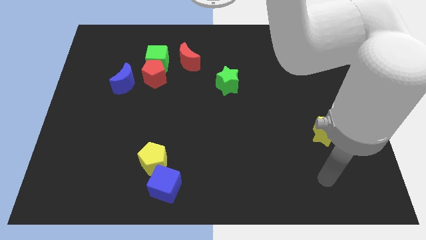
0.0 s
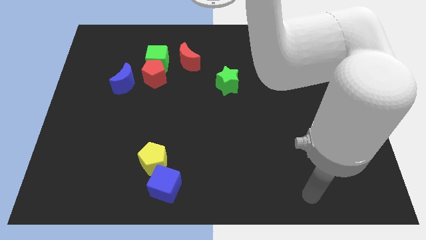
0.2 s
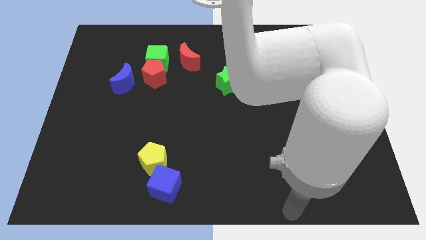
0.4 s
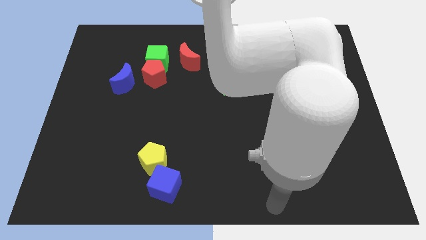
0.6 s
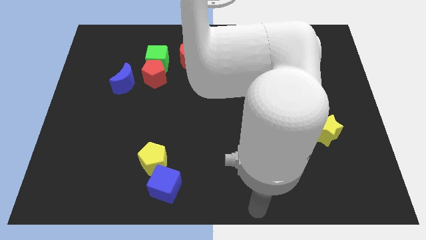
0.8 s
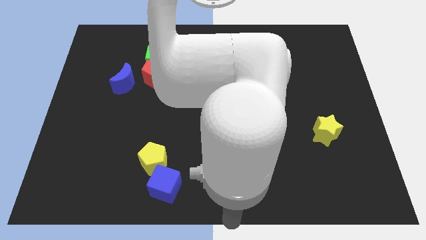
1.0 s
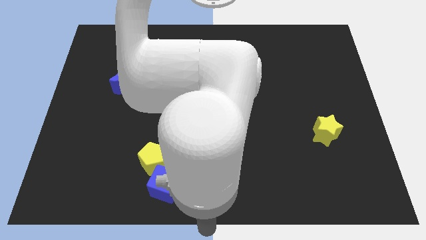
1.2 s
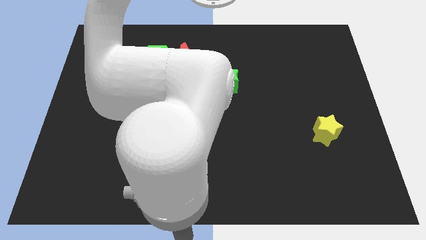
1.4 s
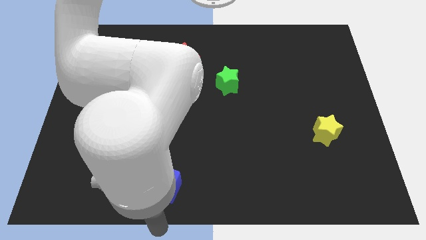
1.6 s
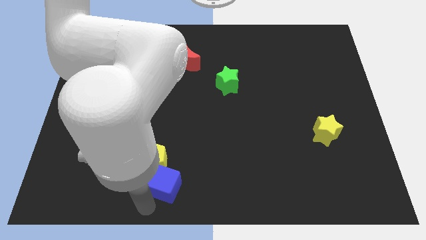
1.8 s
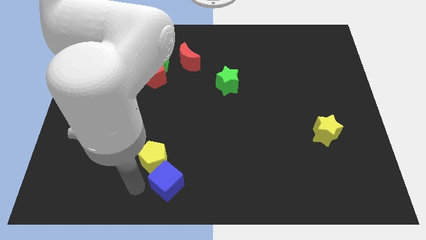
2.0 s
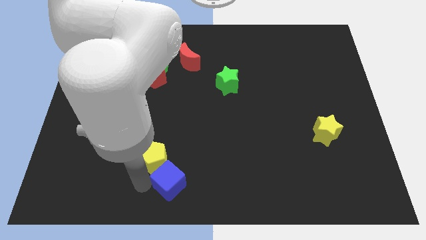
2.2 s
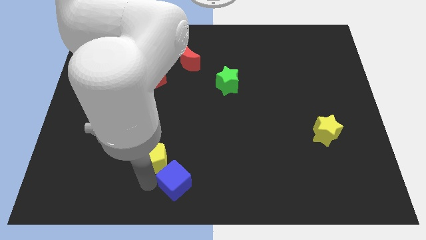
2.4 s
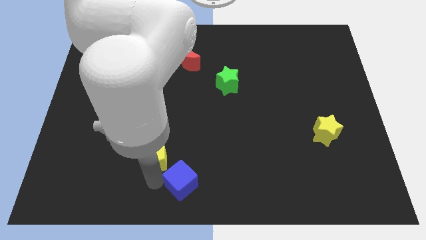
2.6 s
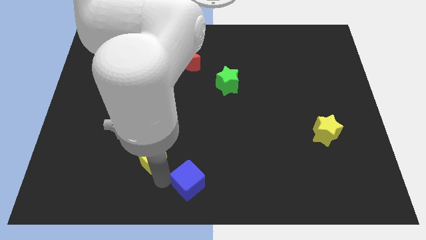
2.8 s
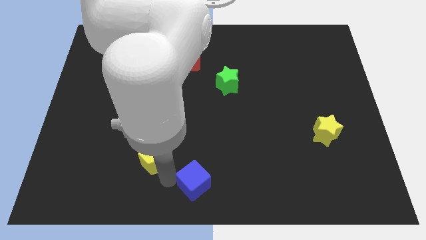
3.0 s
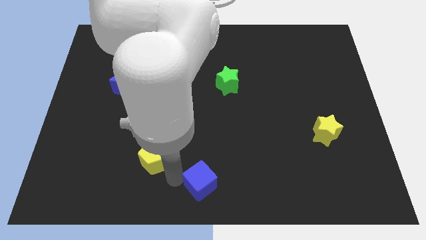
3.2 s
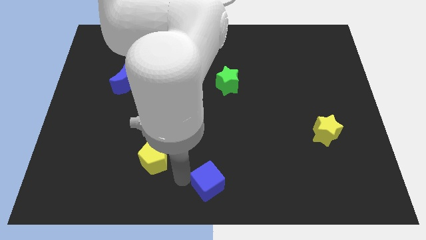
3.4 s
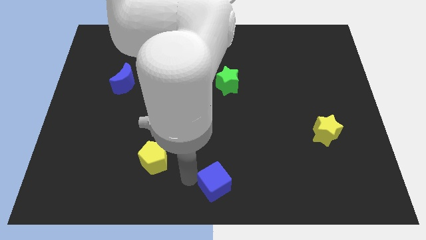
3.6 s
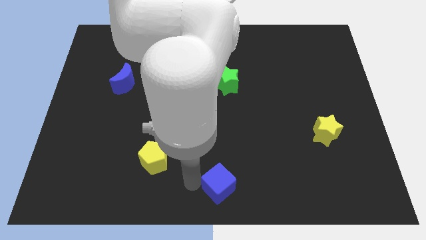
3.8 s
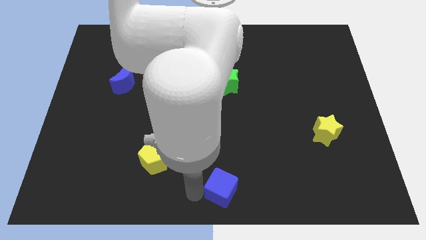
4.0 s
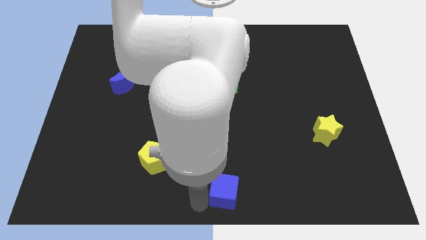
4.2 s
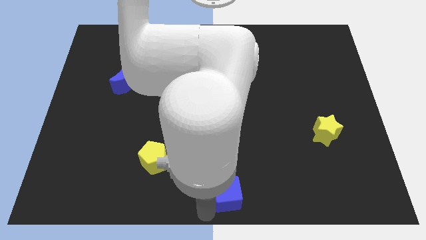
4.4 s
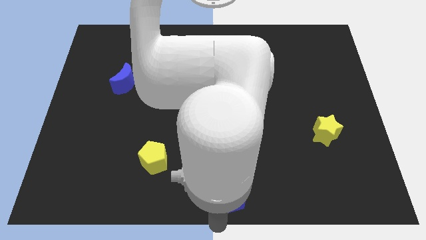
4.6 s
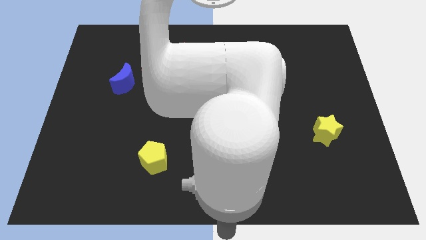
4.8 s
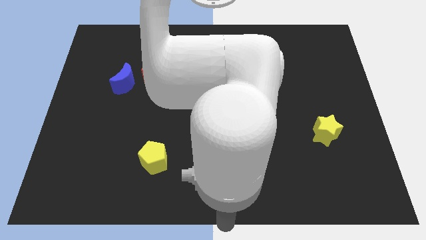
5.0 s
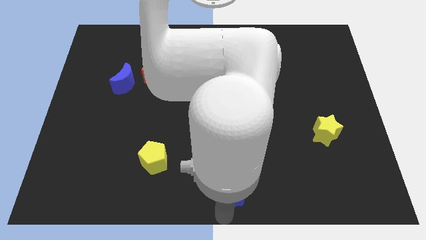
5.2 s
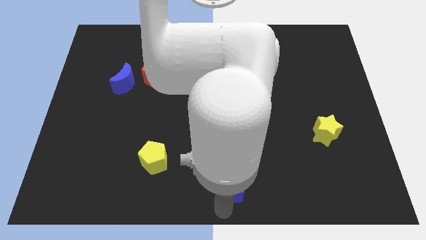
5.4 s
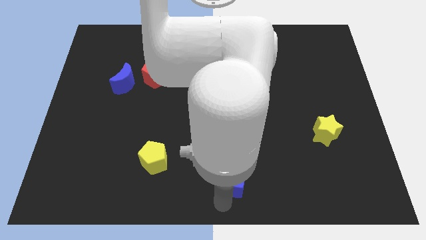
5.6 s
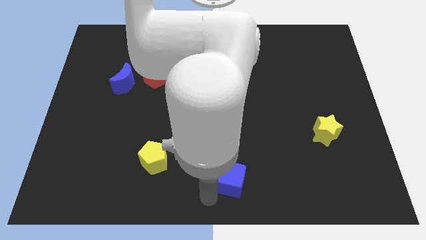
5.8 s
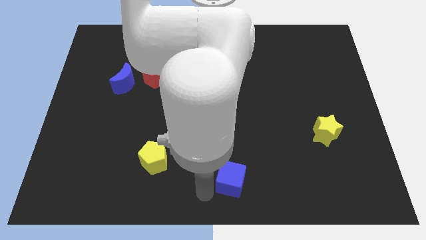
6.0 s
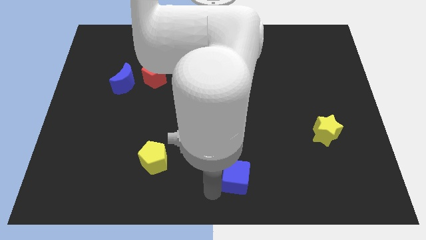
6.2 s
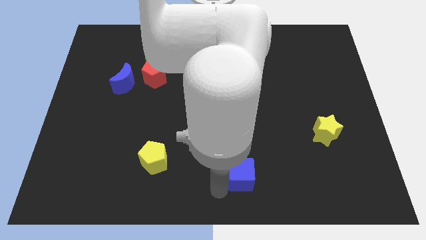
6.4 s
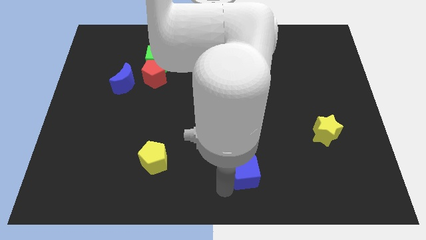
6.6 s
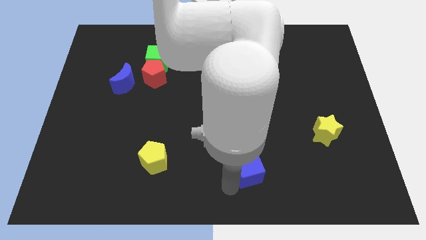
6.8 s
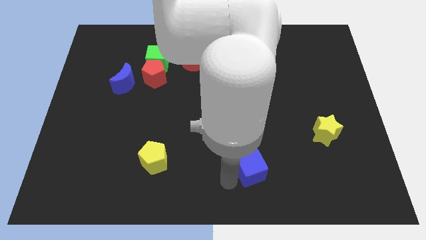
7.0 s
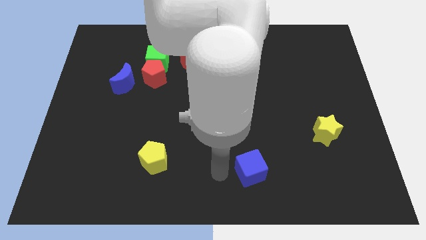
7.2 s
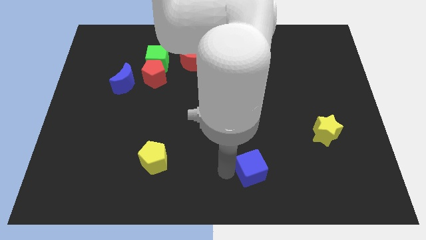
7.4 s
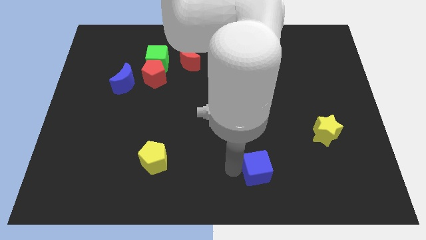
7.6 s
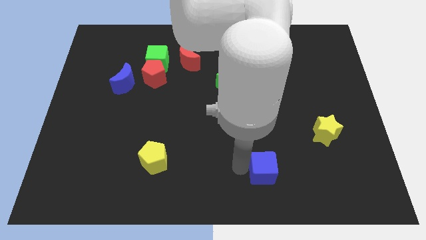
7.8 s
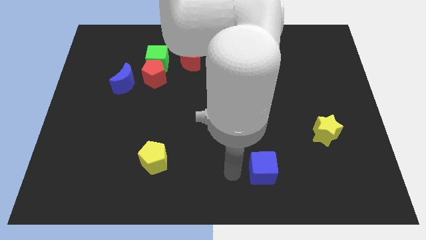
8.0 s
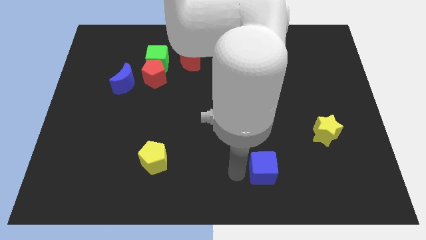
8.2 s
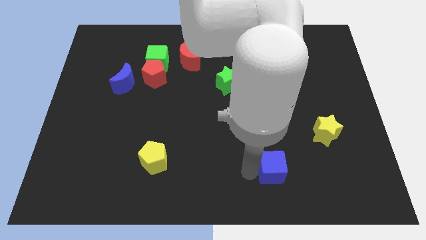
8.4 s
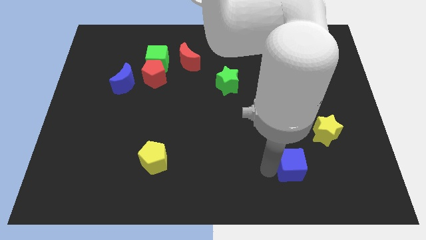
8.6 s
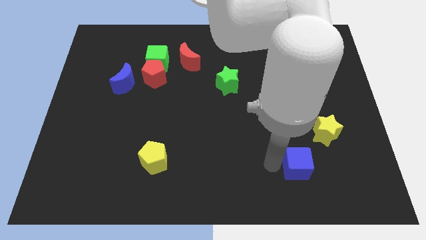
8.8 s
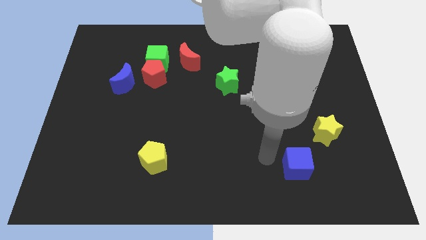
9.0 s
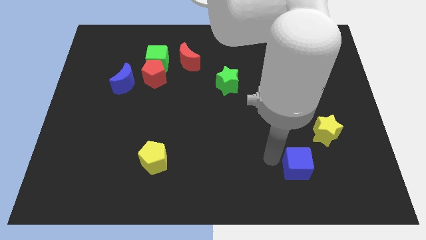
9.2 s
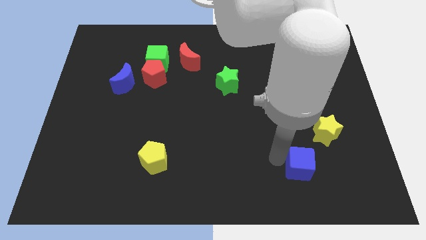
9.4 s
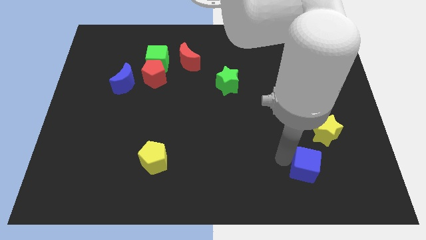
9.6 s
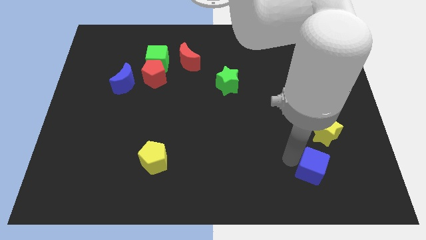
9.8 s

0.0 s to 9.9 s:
push the blue cube below the yellow star

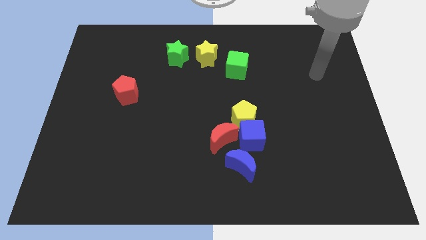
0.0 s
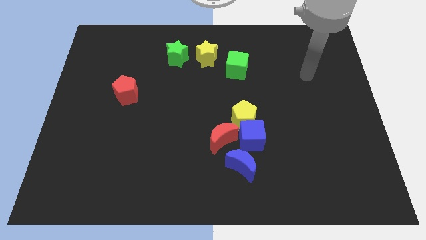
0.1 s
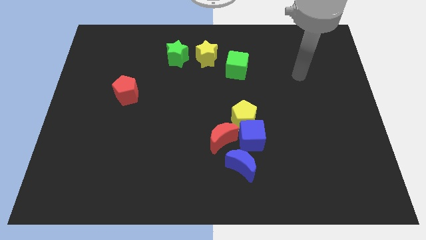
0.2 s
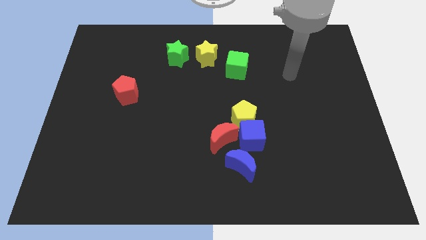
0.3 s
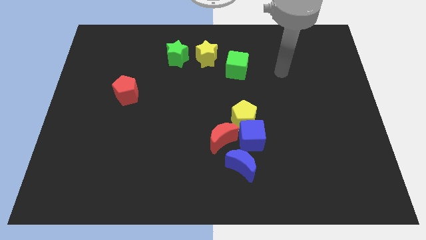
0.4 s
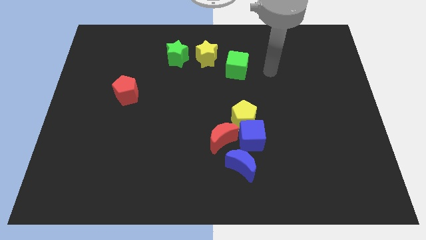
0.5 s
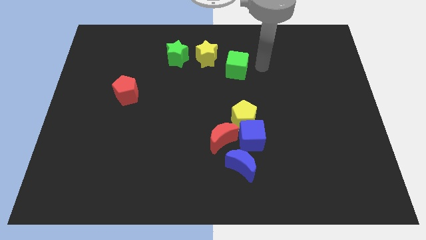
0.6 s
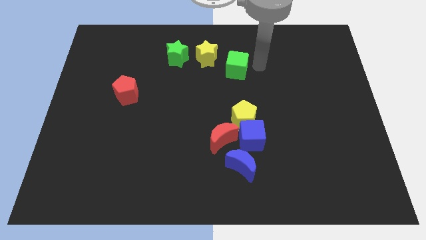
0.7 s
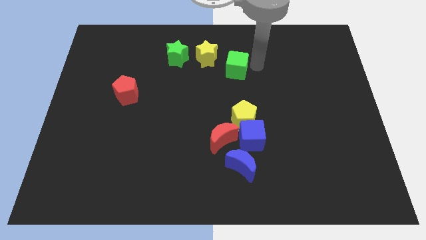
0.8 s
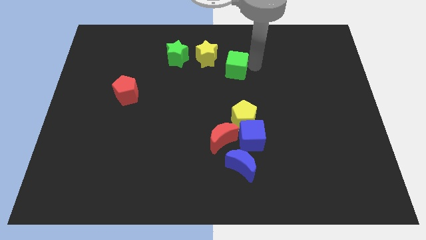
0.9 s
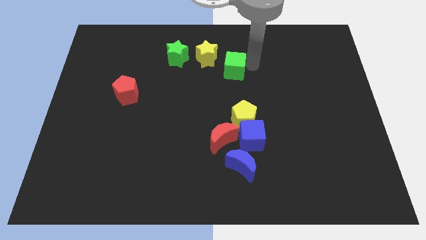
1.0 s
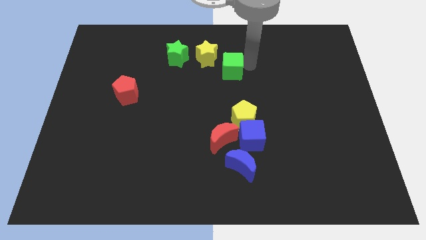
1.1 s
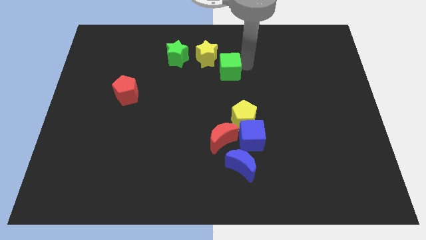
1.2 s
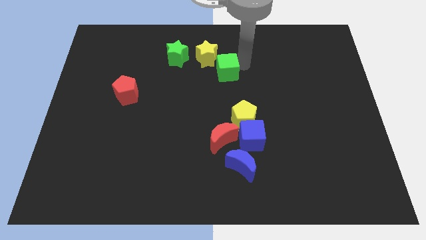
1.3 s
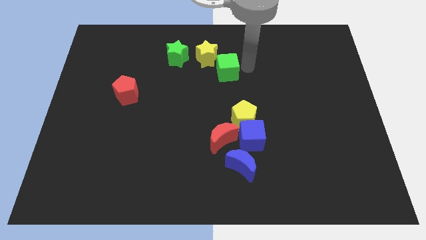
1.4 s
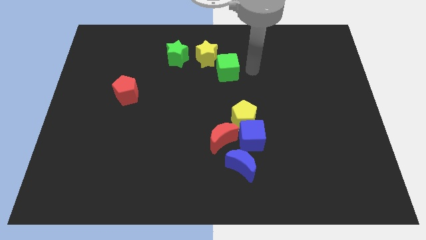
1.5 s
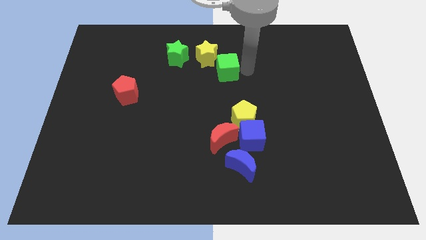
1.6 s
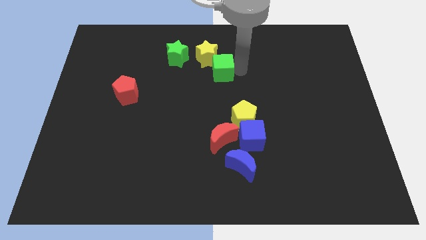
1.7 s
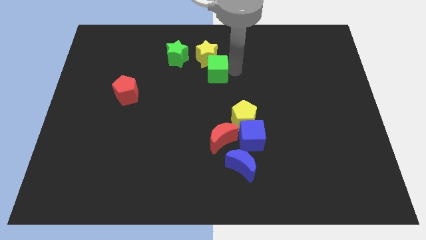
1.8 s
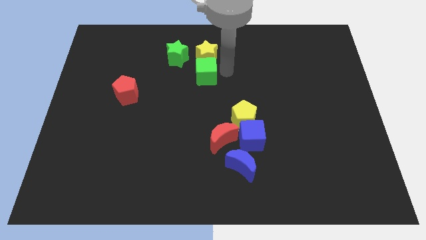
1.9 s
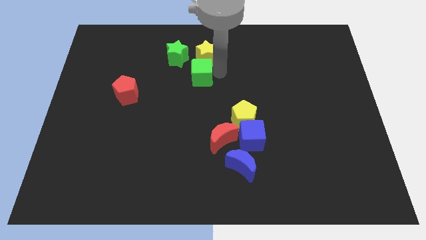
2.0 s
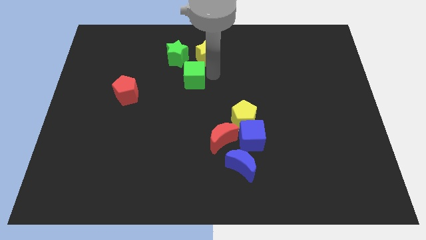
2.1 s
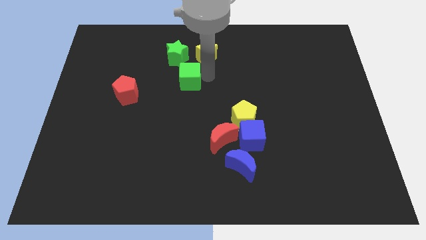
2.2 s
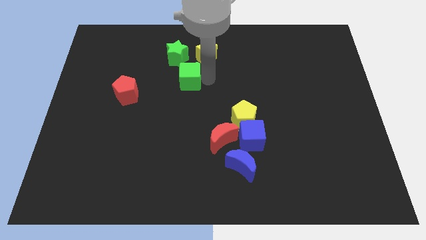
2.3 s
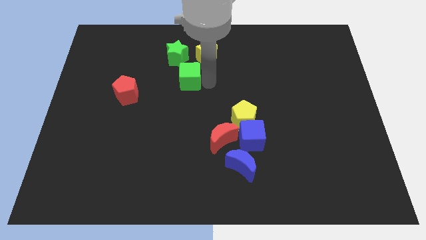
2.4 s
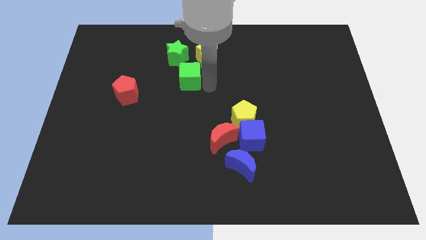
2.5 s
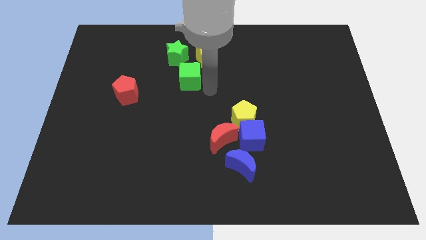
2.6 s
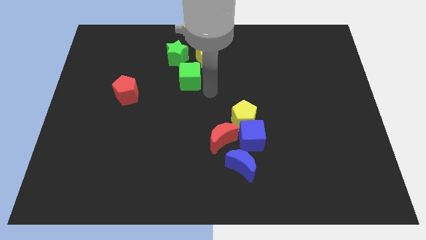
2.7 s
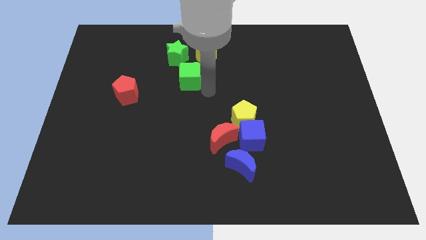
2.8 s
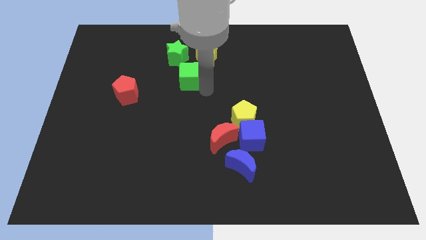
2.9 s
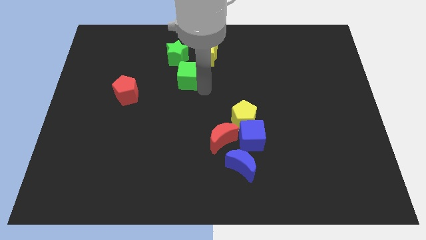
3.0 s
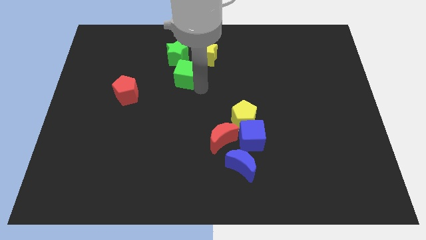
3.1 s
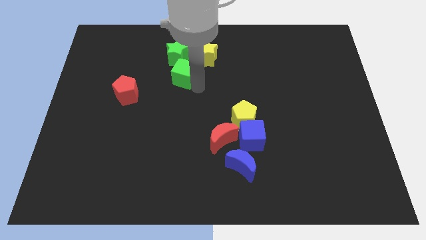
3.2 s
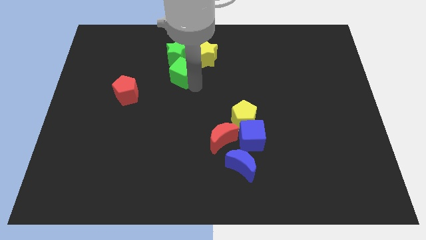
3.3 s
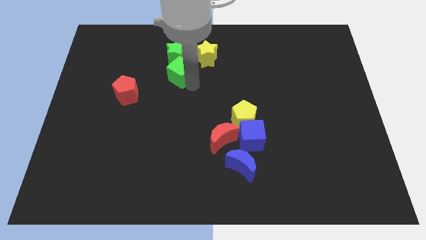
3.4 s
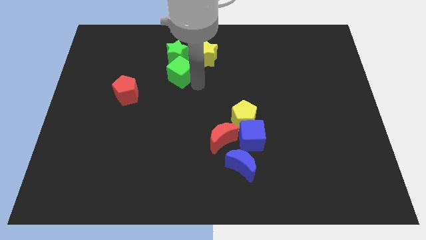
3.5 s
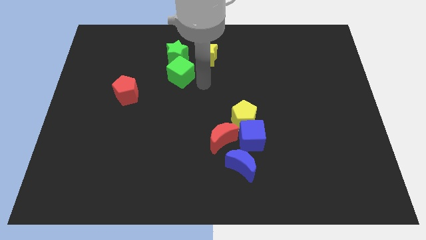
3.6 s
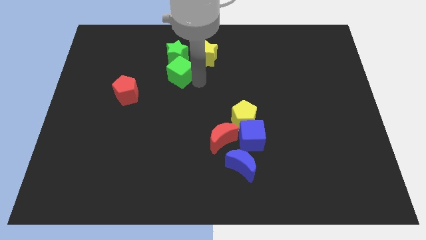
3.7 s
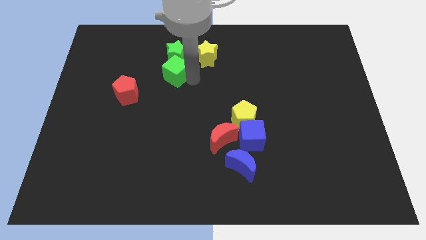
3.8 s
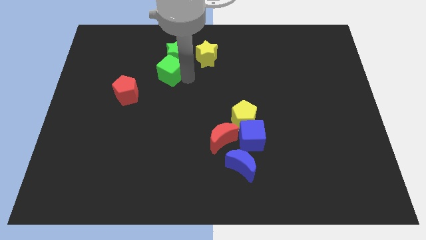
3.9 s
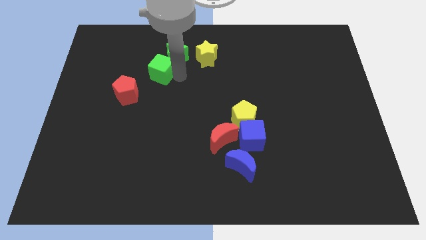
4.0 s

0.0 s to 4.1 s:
slide the green cube left of the yellow star
